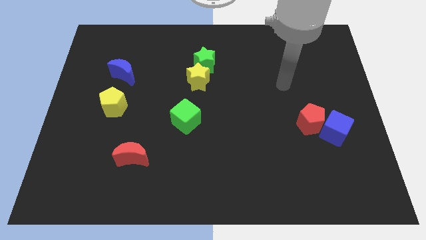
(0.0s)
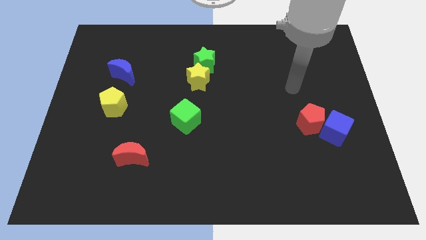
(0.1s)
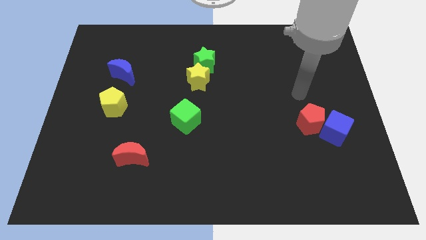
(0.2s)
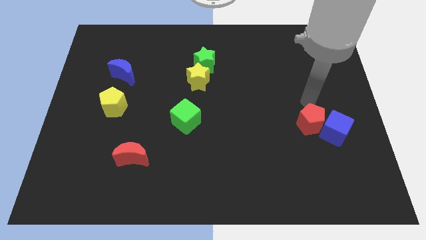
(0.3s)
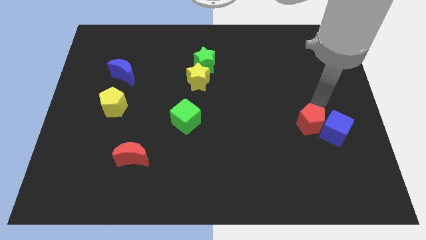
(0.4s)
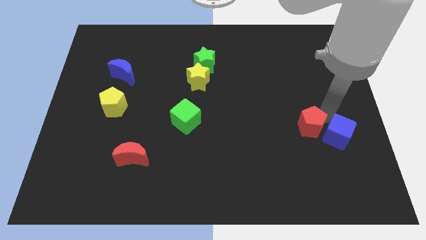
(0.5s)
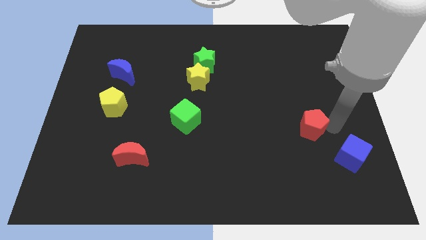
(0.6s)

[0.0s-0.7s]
separate the red pentagon from the blue cube

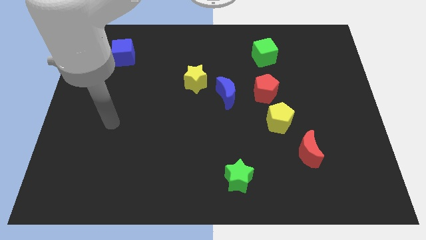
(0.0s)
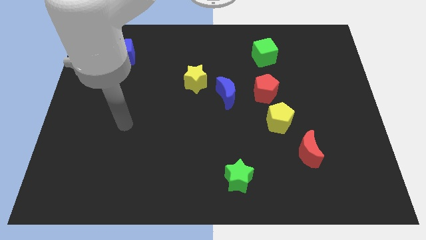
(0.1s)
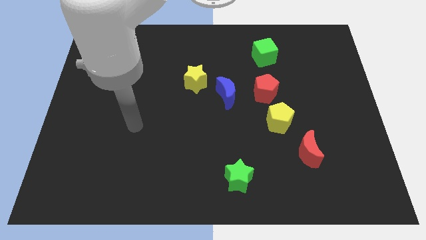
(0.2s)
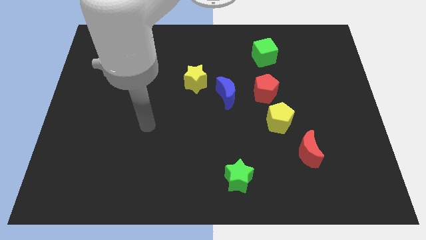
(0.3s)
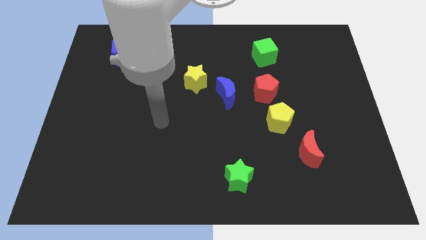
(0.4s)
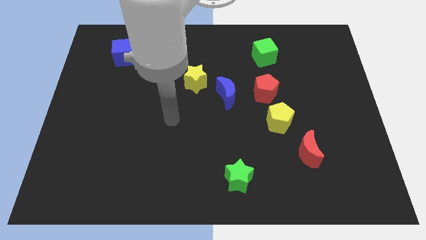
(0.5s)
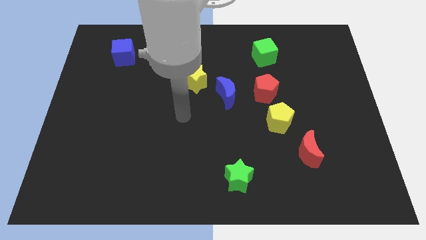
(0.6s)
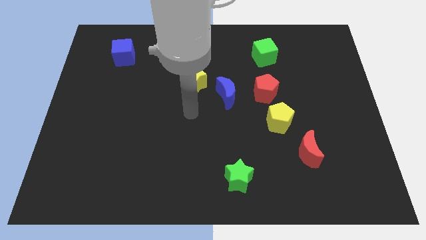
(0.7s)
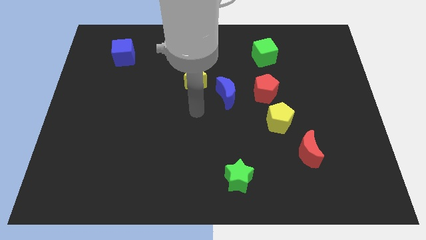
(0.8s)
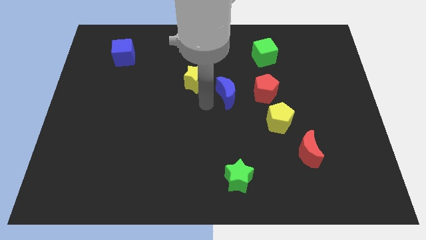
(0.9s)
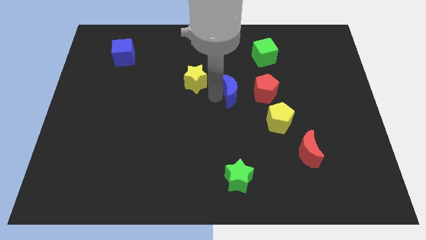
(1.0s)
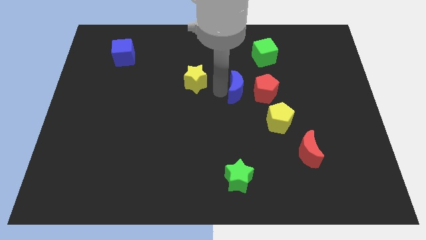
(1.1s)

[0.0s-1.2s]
separate the yellow star from the blue moon

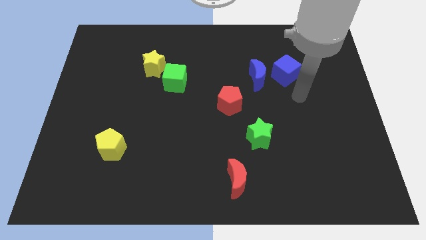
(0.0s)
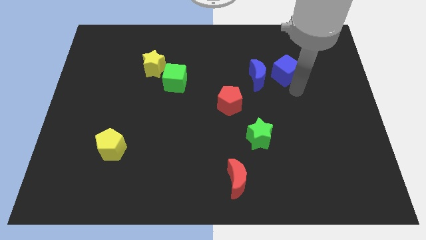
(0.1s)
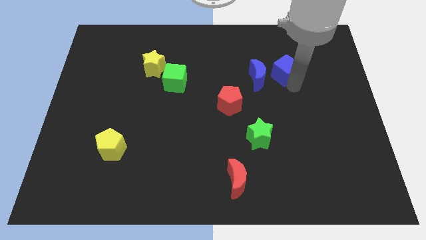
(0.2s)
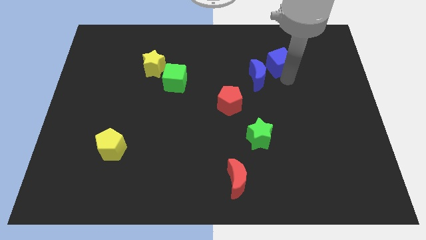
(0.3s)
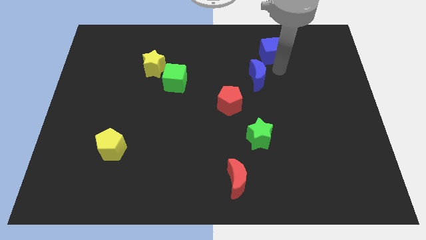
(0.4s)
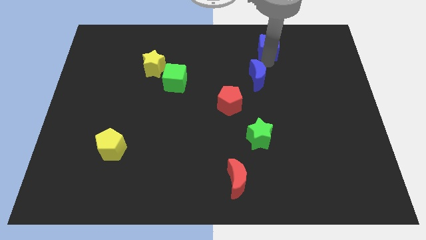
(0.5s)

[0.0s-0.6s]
move the blue moon away from the blue cube

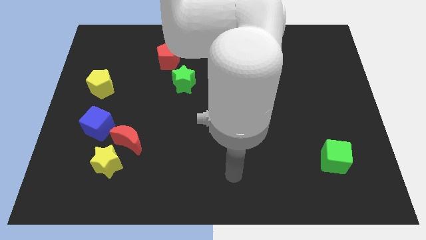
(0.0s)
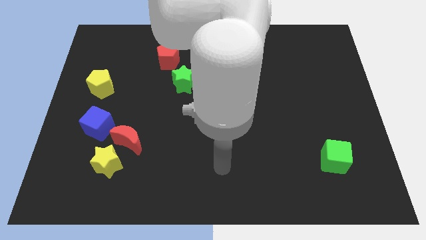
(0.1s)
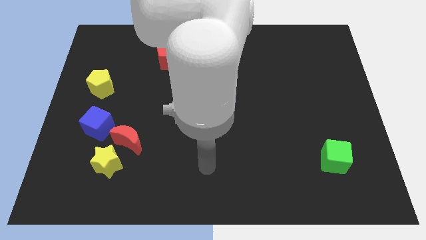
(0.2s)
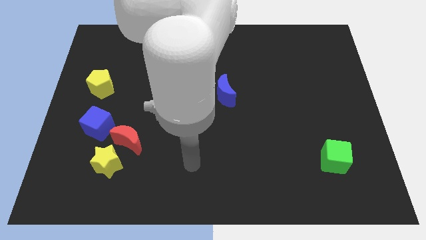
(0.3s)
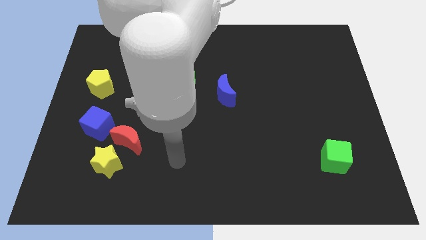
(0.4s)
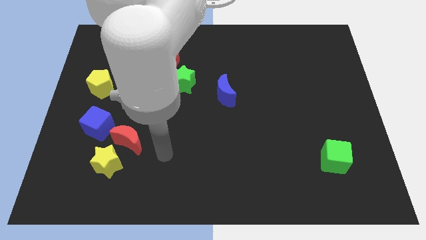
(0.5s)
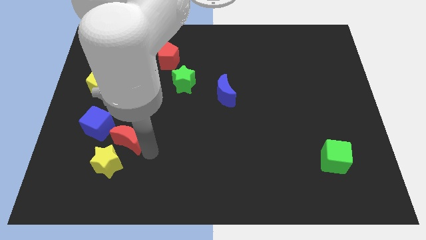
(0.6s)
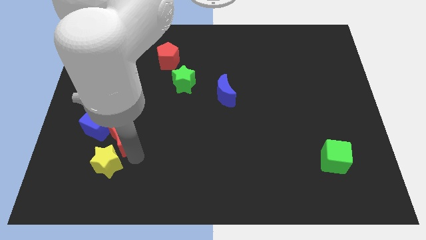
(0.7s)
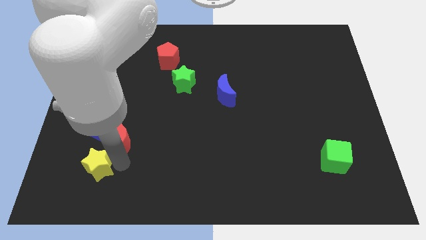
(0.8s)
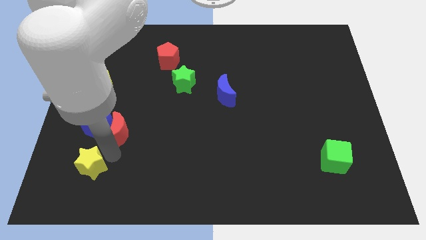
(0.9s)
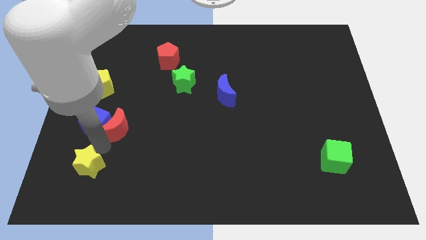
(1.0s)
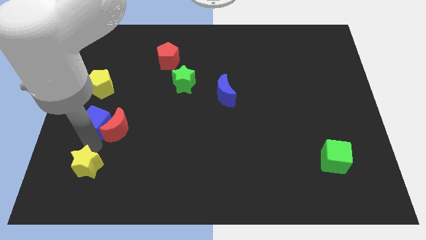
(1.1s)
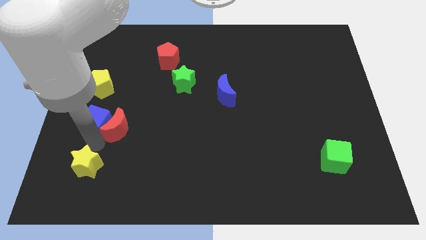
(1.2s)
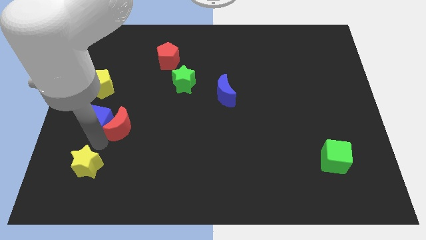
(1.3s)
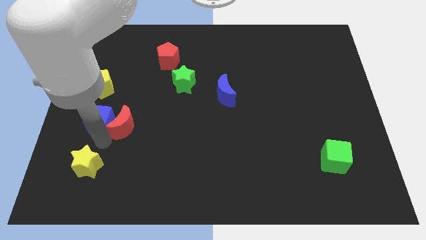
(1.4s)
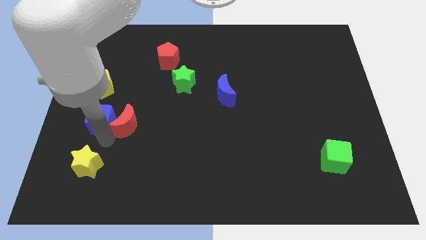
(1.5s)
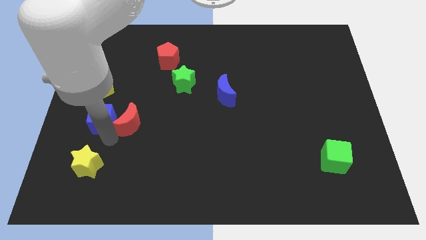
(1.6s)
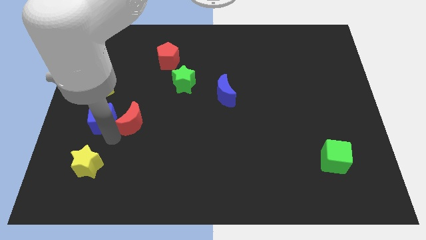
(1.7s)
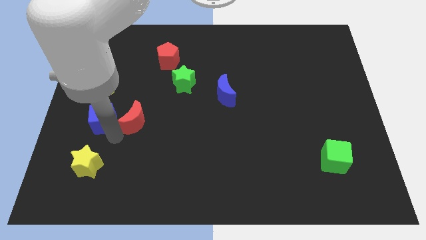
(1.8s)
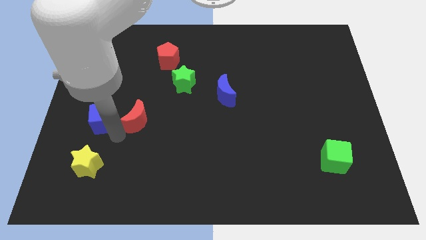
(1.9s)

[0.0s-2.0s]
pull the red moon apart from the yellow star and blue cube

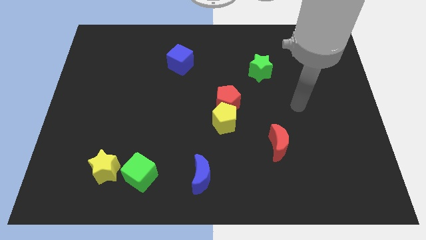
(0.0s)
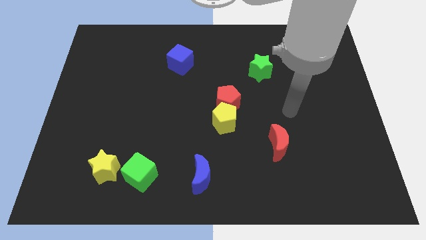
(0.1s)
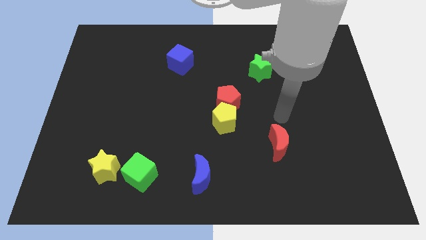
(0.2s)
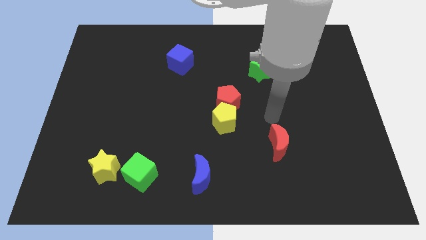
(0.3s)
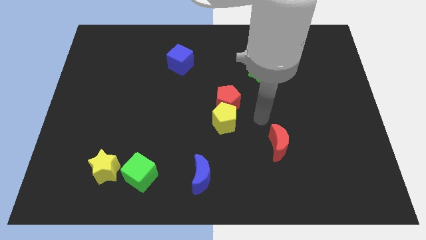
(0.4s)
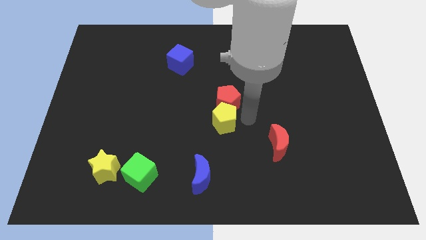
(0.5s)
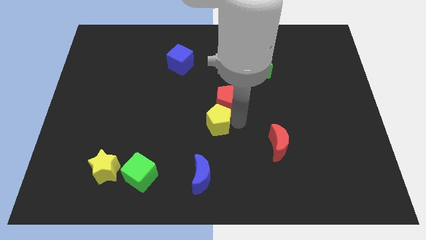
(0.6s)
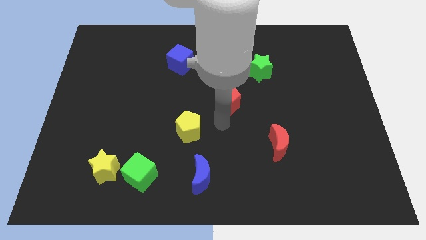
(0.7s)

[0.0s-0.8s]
move the red pentagon away from the yellow pentagon

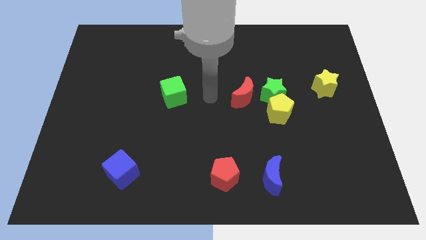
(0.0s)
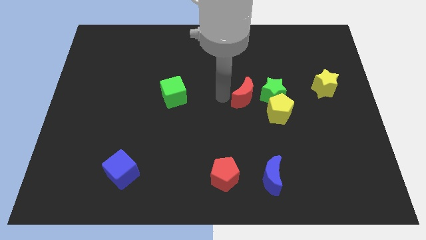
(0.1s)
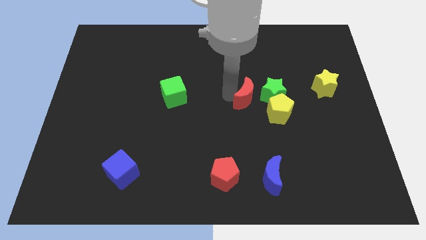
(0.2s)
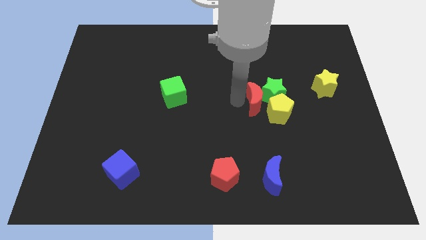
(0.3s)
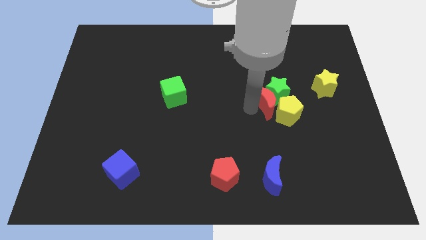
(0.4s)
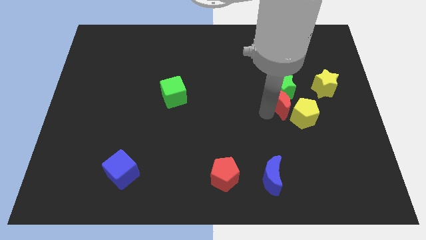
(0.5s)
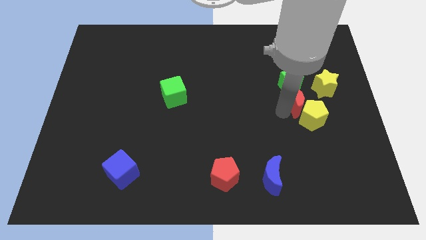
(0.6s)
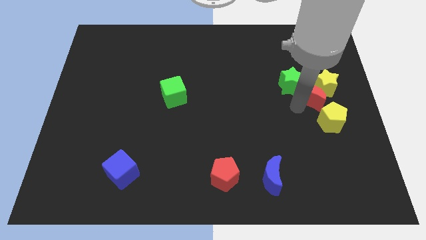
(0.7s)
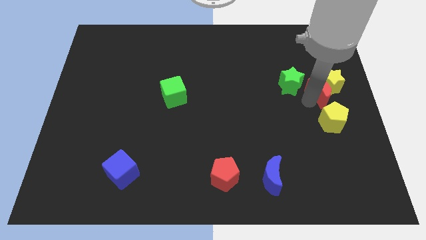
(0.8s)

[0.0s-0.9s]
separate the green star from the yellow pentagon and red moon

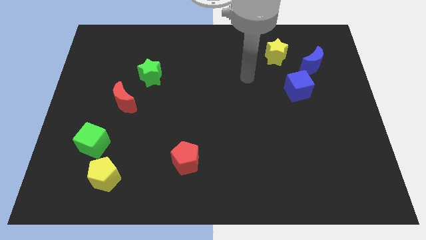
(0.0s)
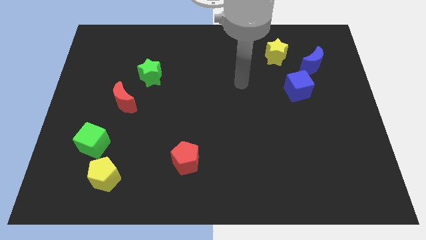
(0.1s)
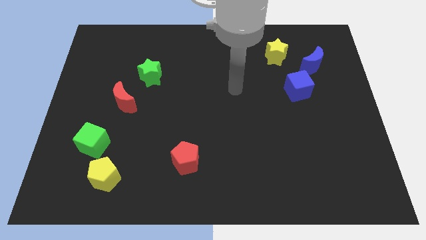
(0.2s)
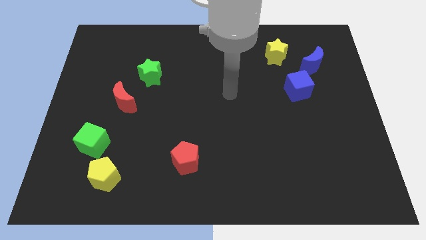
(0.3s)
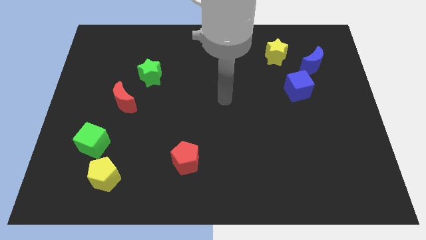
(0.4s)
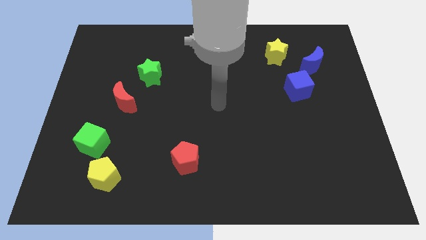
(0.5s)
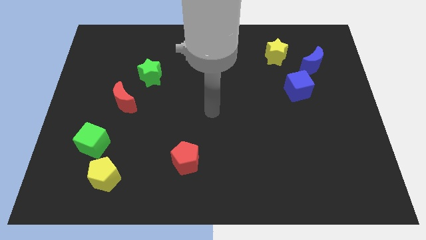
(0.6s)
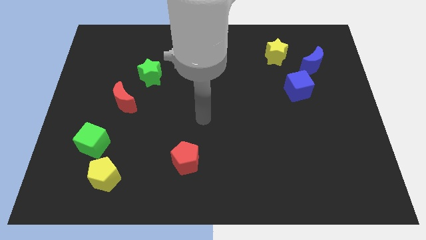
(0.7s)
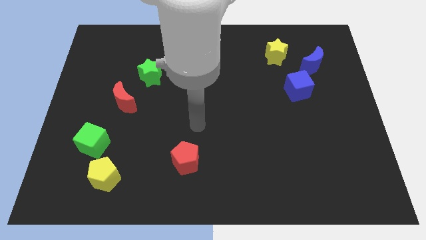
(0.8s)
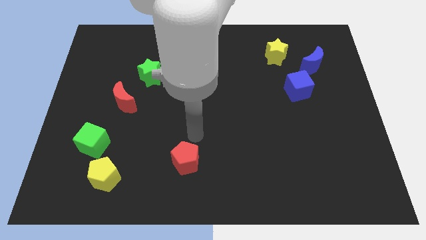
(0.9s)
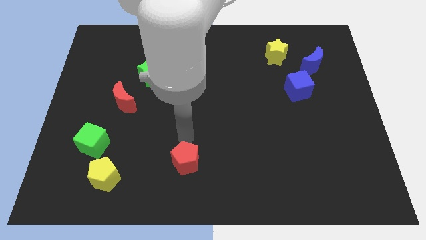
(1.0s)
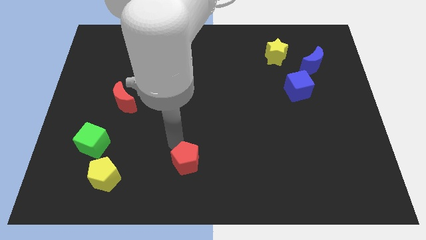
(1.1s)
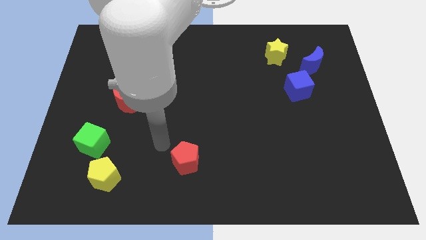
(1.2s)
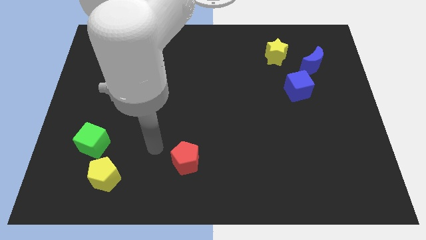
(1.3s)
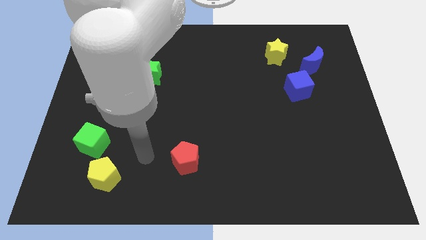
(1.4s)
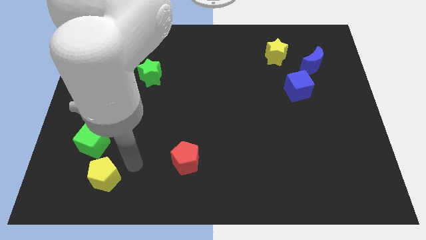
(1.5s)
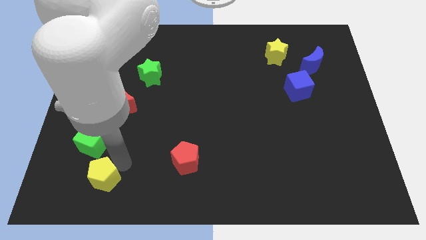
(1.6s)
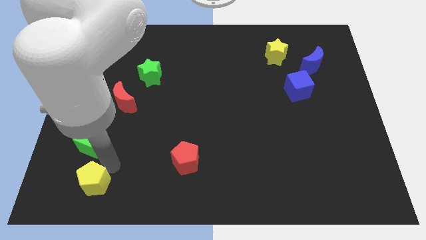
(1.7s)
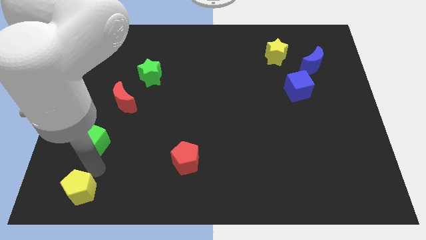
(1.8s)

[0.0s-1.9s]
separate the green cube from the yellow pentagon

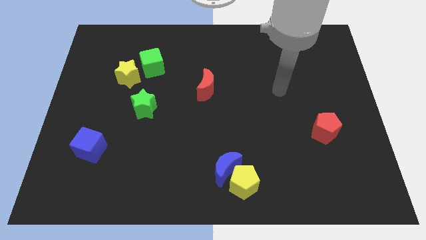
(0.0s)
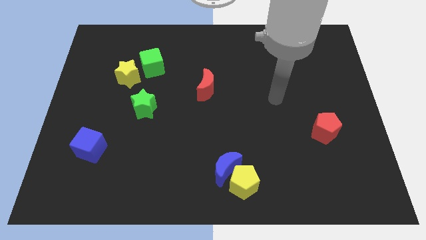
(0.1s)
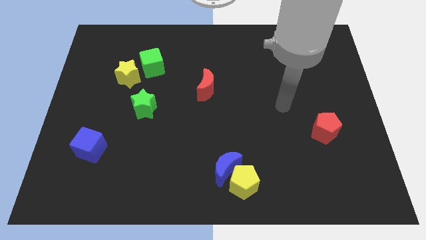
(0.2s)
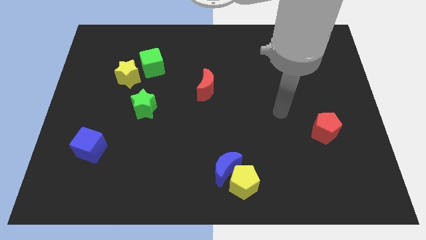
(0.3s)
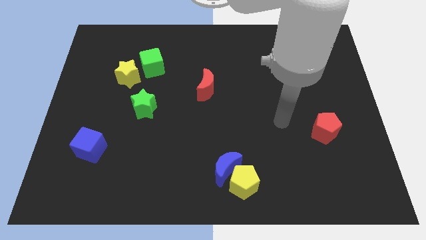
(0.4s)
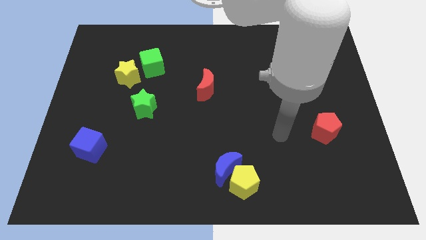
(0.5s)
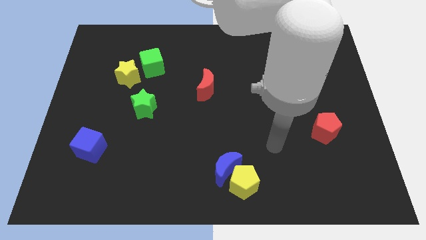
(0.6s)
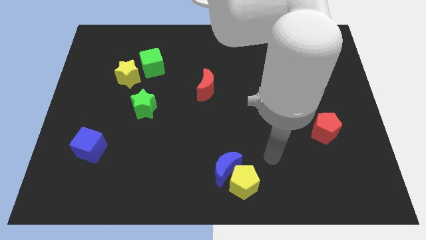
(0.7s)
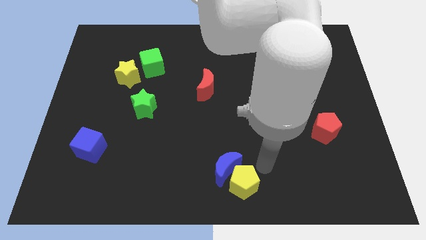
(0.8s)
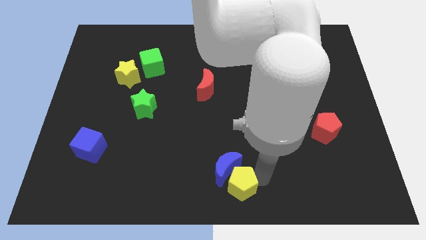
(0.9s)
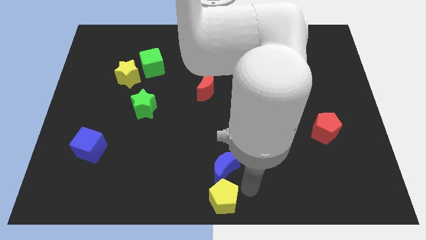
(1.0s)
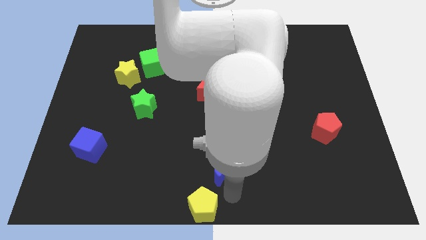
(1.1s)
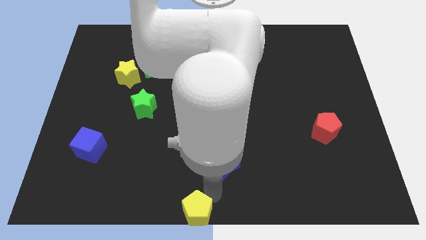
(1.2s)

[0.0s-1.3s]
pull the blue moon apart from the yellow pentagon

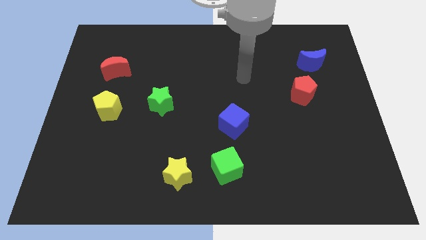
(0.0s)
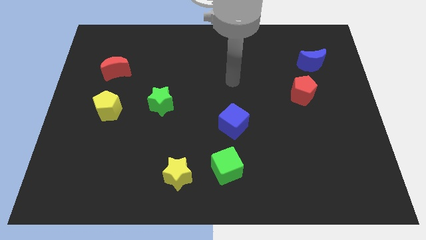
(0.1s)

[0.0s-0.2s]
move the green cube away from the yellow star
